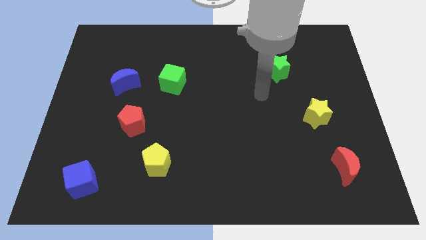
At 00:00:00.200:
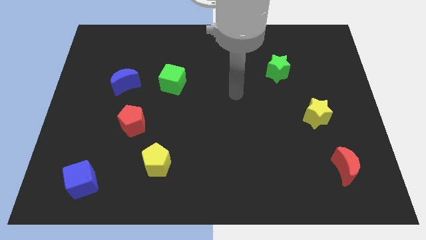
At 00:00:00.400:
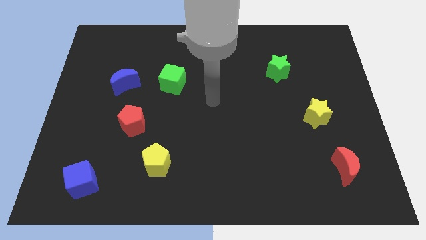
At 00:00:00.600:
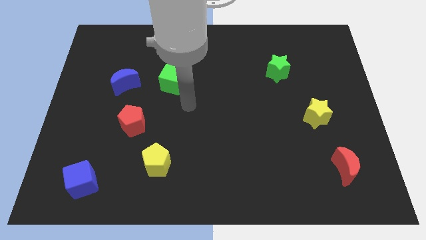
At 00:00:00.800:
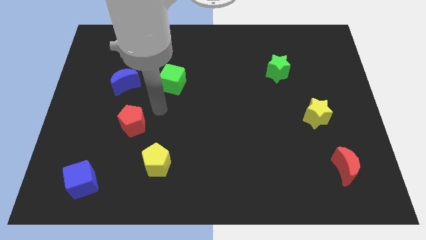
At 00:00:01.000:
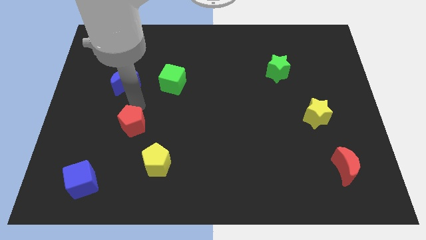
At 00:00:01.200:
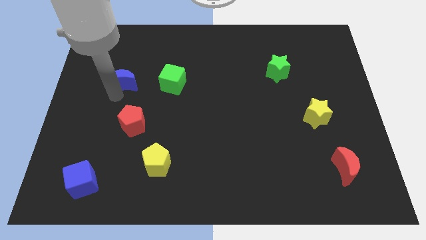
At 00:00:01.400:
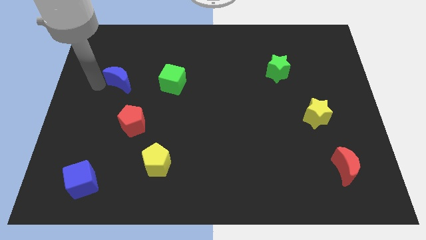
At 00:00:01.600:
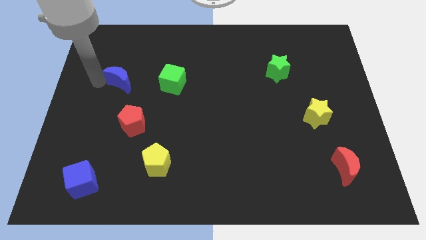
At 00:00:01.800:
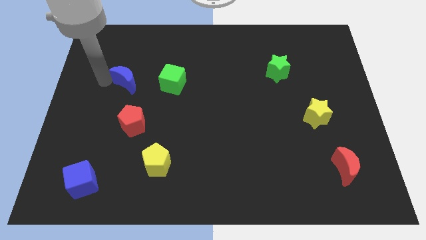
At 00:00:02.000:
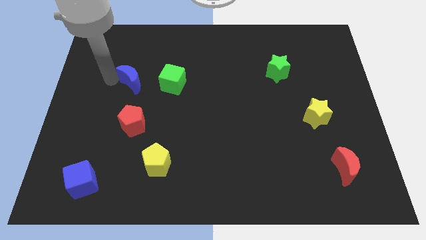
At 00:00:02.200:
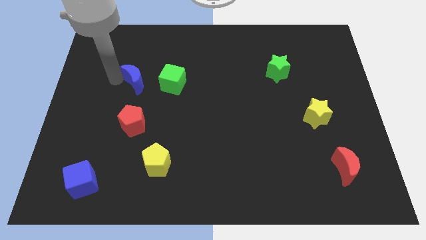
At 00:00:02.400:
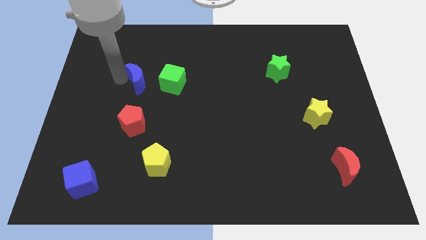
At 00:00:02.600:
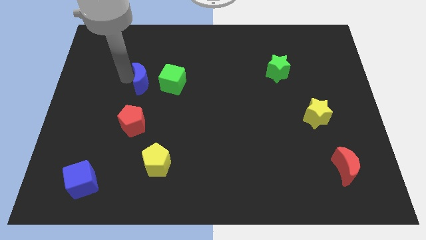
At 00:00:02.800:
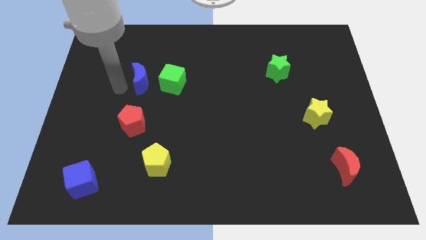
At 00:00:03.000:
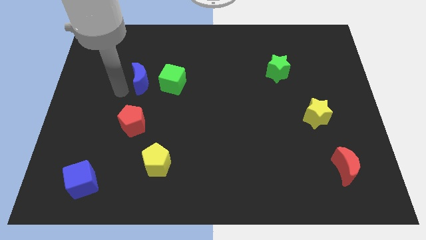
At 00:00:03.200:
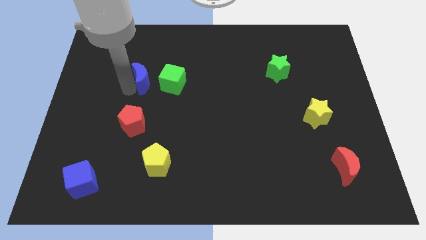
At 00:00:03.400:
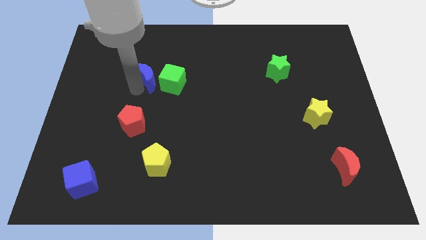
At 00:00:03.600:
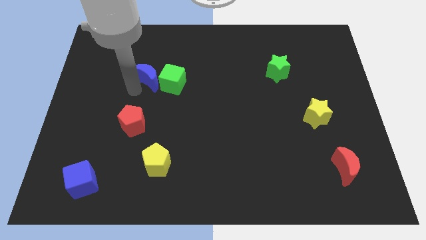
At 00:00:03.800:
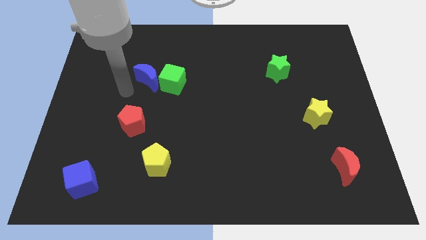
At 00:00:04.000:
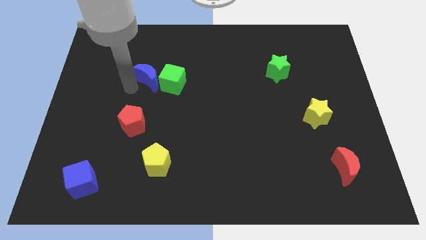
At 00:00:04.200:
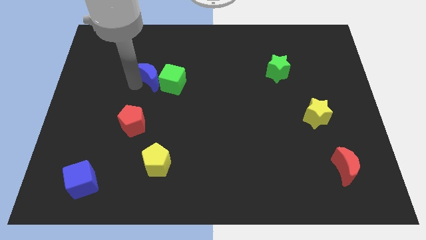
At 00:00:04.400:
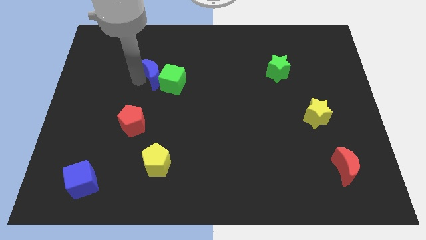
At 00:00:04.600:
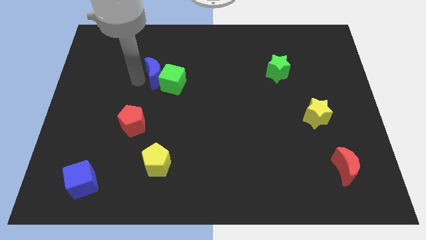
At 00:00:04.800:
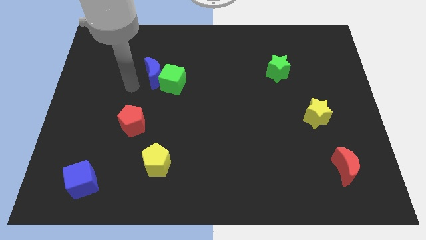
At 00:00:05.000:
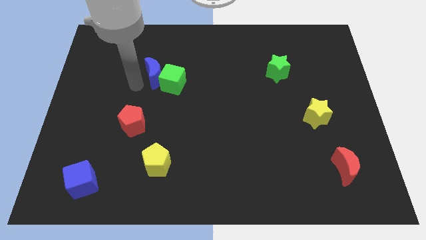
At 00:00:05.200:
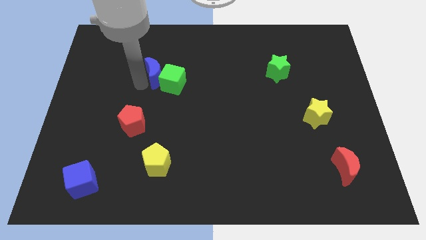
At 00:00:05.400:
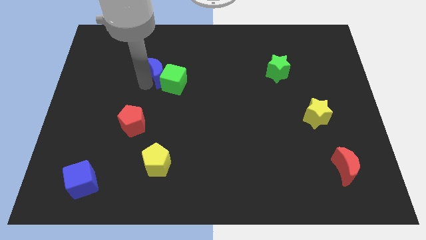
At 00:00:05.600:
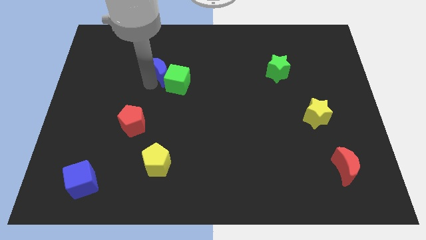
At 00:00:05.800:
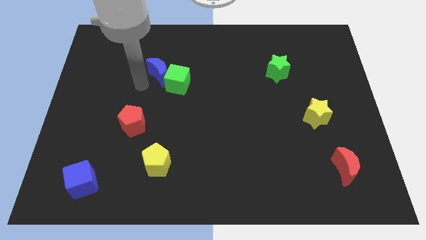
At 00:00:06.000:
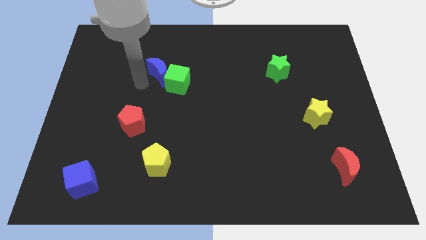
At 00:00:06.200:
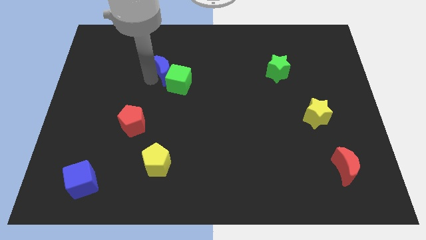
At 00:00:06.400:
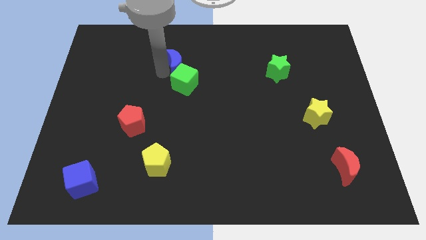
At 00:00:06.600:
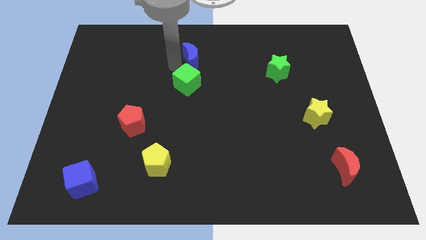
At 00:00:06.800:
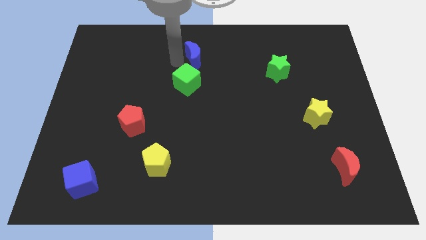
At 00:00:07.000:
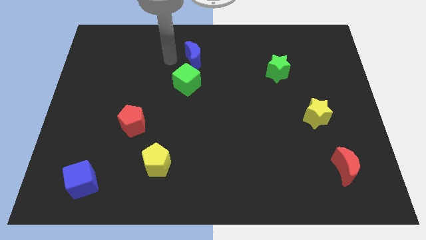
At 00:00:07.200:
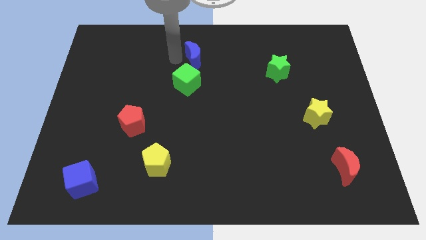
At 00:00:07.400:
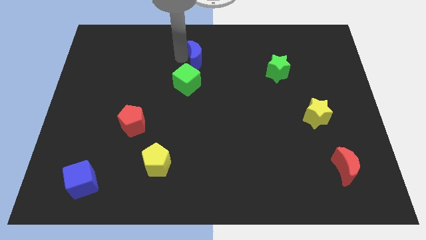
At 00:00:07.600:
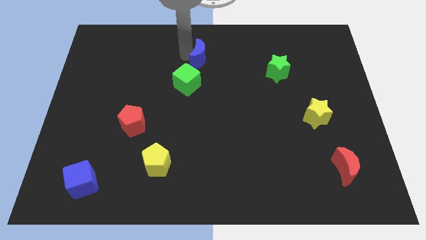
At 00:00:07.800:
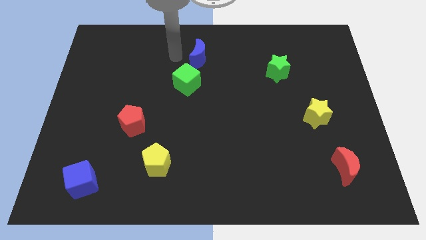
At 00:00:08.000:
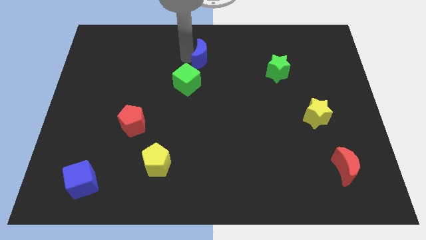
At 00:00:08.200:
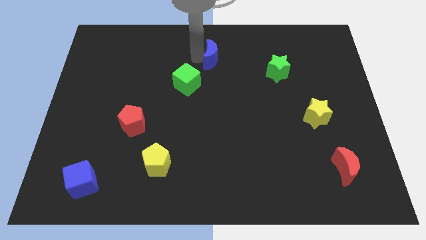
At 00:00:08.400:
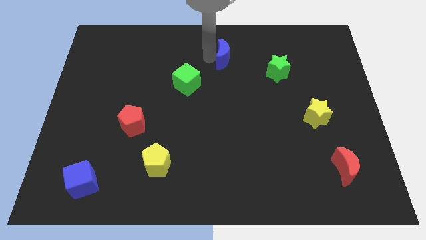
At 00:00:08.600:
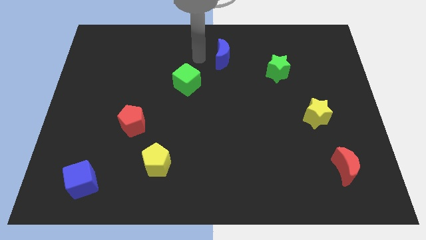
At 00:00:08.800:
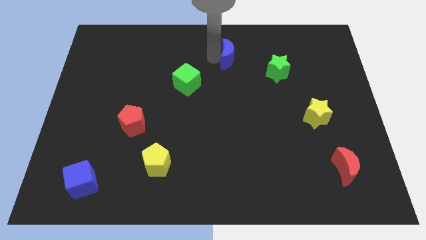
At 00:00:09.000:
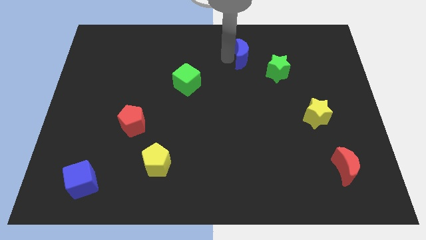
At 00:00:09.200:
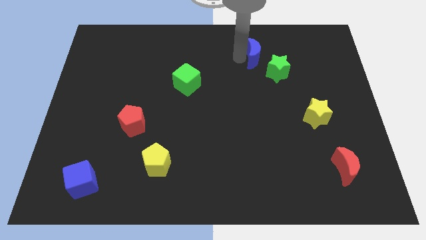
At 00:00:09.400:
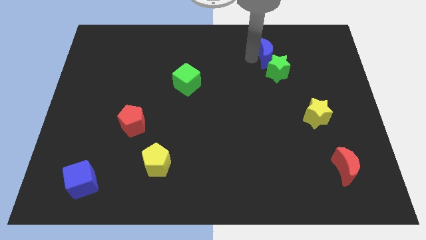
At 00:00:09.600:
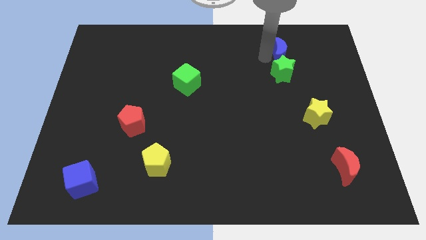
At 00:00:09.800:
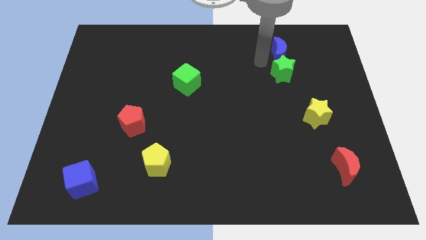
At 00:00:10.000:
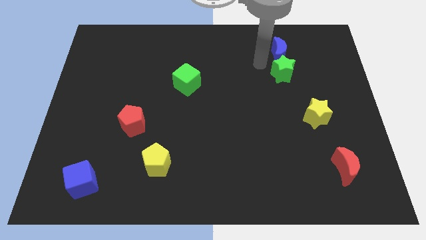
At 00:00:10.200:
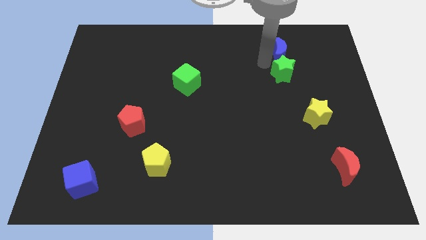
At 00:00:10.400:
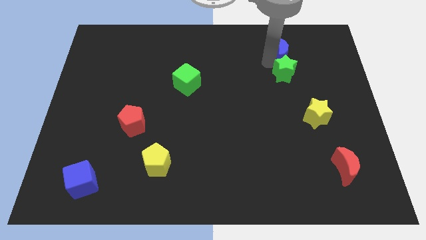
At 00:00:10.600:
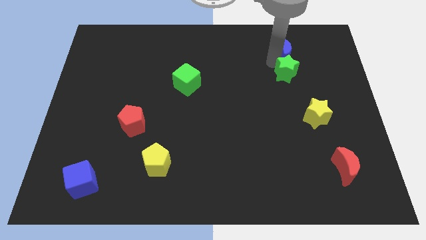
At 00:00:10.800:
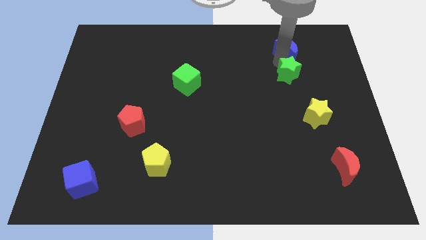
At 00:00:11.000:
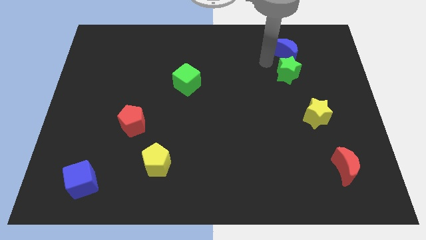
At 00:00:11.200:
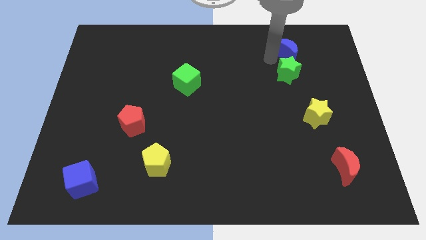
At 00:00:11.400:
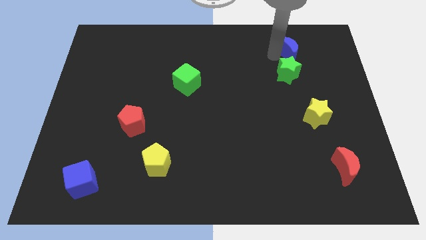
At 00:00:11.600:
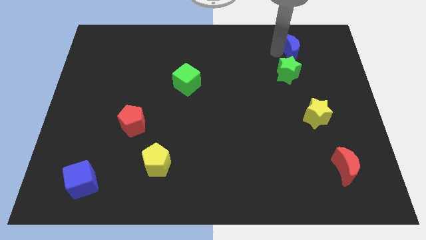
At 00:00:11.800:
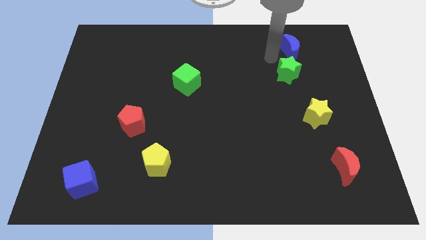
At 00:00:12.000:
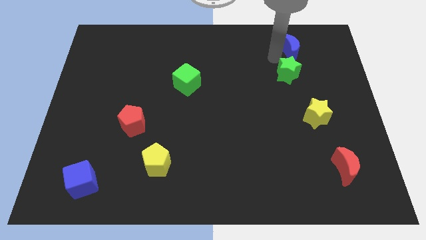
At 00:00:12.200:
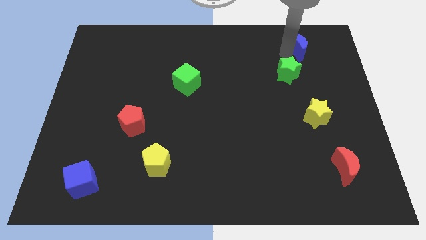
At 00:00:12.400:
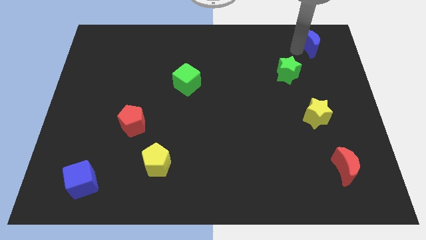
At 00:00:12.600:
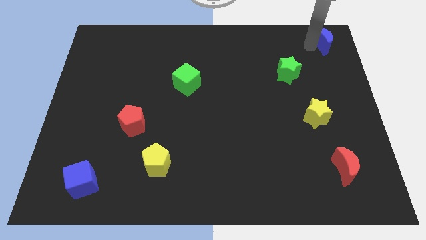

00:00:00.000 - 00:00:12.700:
put the blue moon to the top right corner
